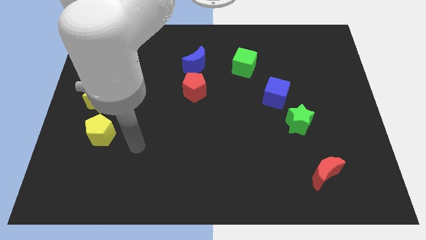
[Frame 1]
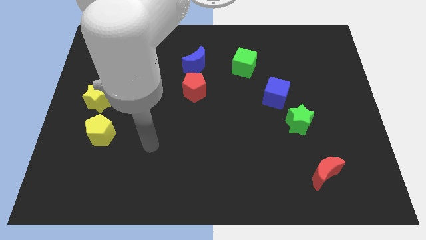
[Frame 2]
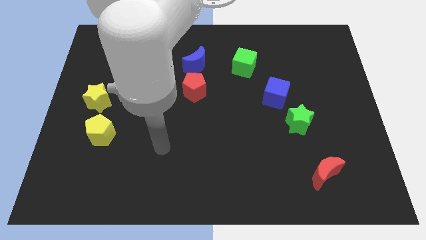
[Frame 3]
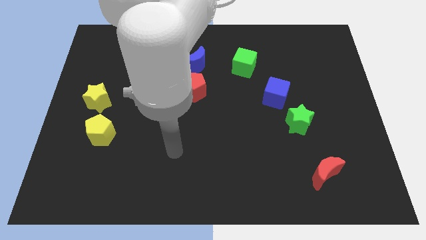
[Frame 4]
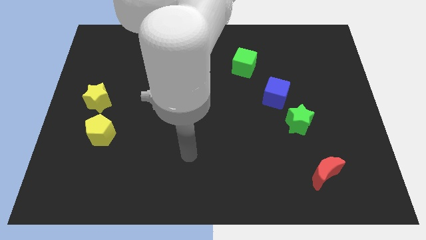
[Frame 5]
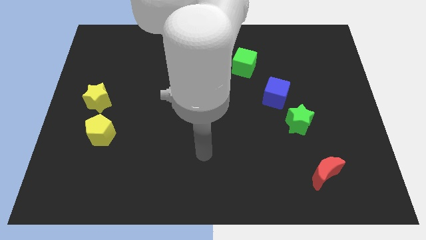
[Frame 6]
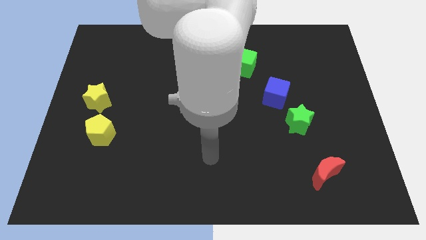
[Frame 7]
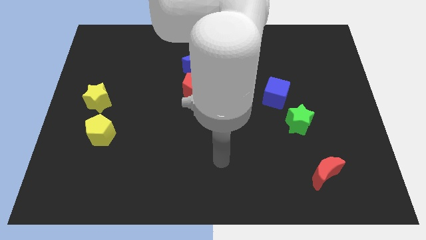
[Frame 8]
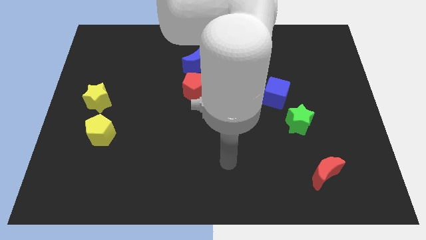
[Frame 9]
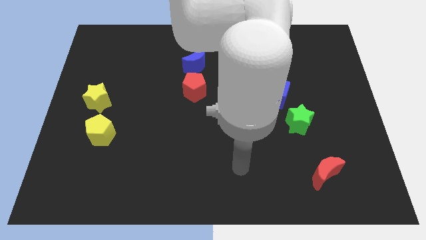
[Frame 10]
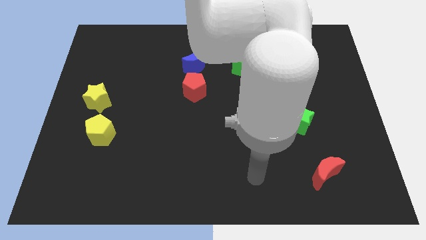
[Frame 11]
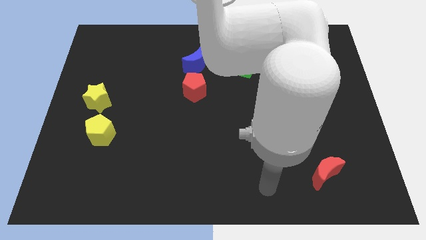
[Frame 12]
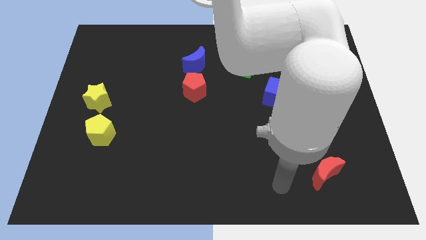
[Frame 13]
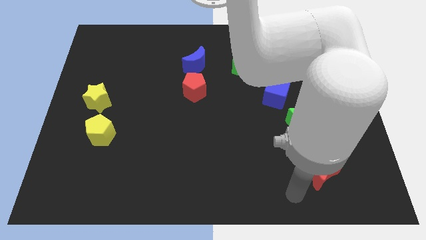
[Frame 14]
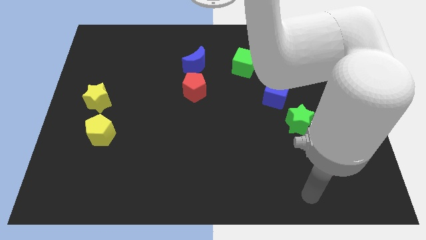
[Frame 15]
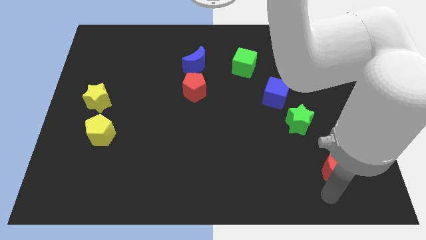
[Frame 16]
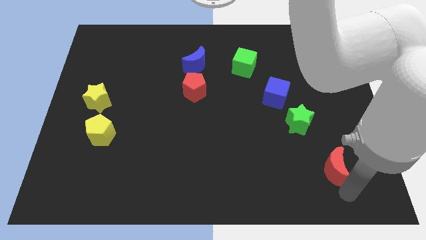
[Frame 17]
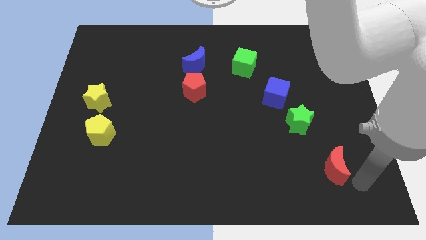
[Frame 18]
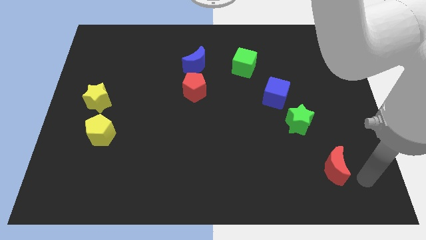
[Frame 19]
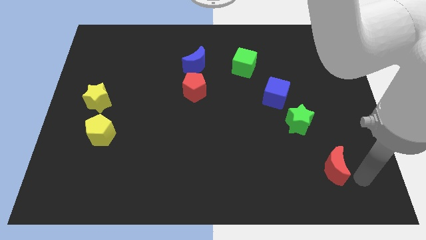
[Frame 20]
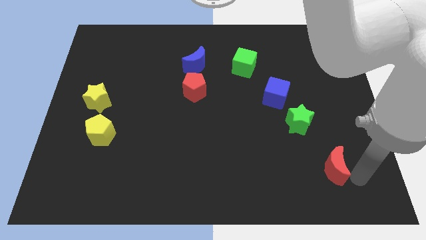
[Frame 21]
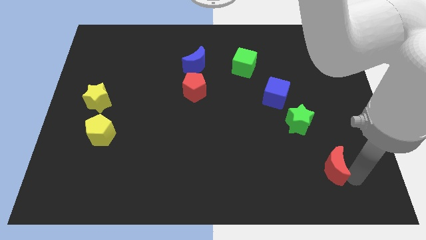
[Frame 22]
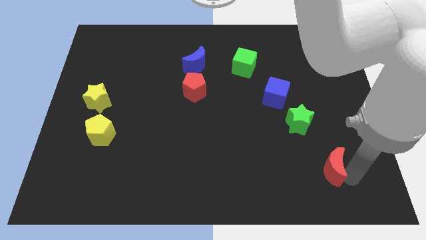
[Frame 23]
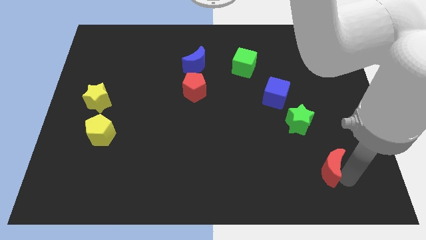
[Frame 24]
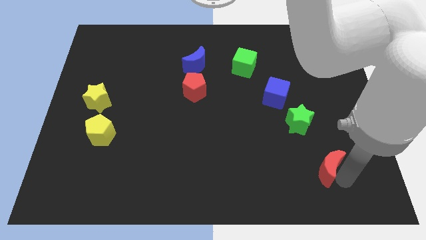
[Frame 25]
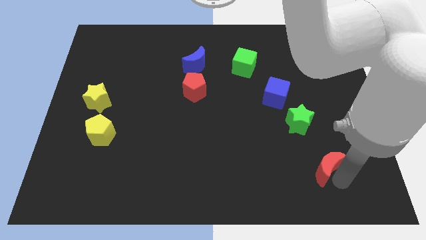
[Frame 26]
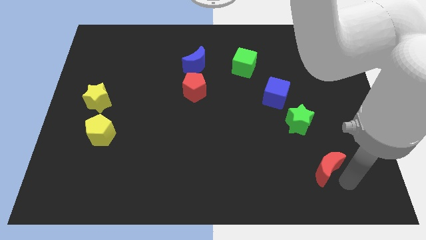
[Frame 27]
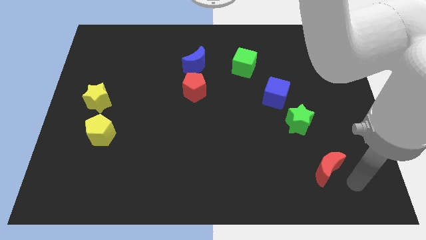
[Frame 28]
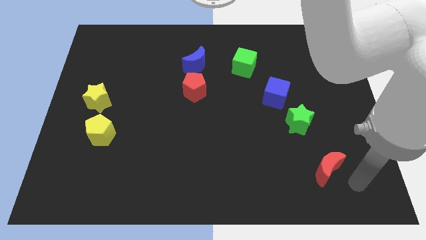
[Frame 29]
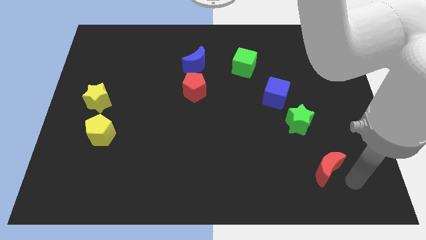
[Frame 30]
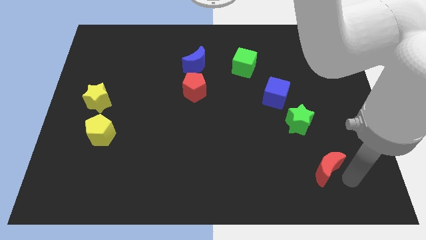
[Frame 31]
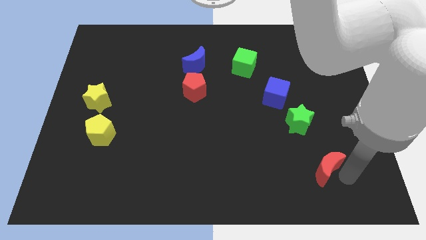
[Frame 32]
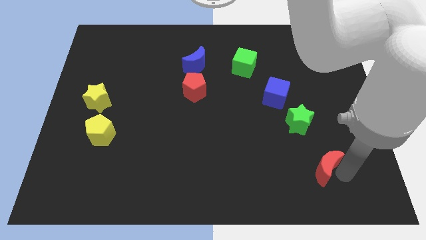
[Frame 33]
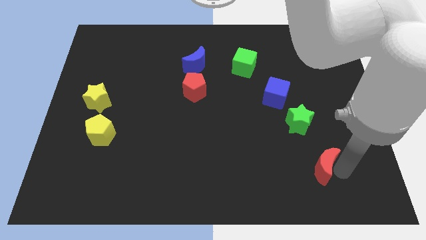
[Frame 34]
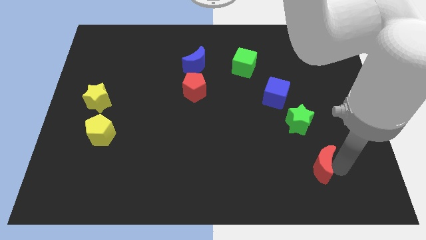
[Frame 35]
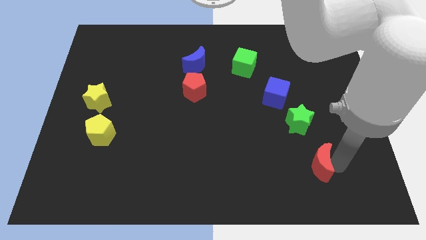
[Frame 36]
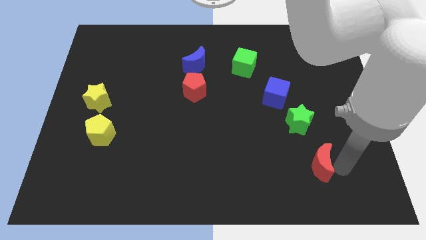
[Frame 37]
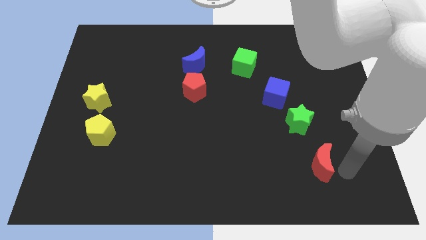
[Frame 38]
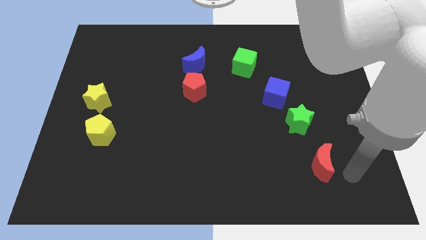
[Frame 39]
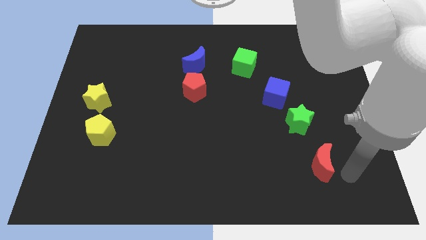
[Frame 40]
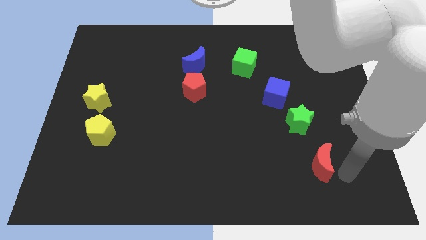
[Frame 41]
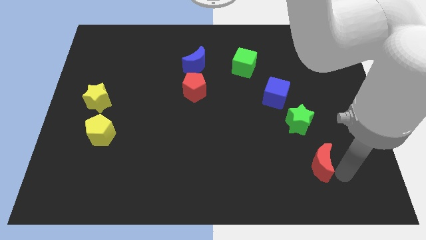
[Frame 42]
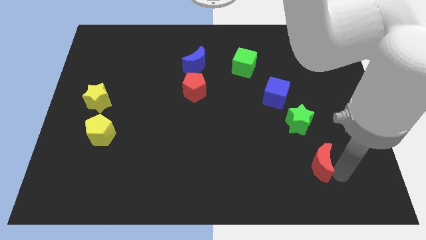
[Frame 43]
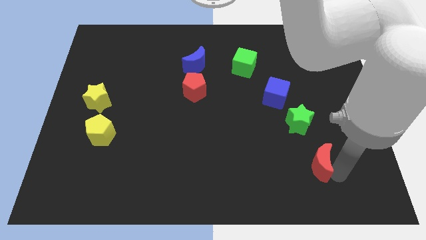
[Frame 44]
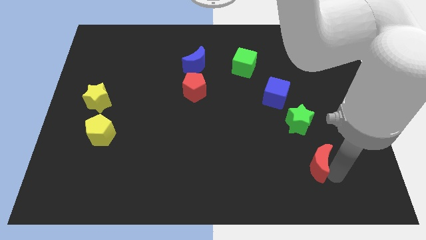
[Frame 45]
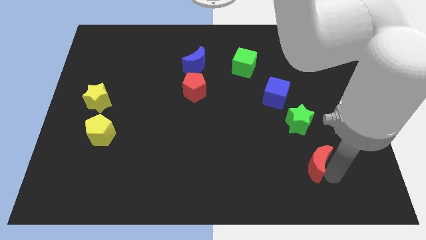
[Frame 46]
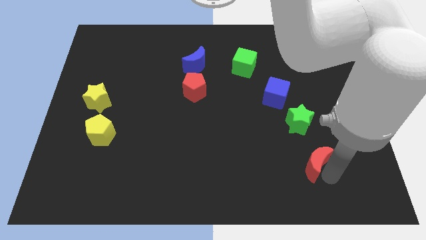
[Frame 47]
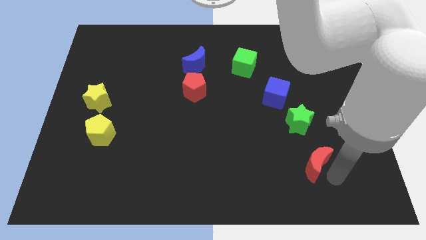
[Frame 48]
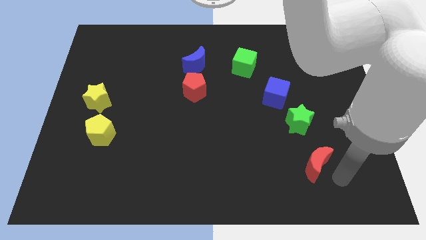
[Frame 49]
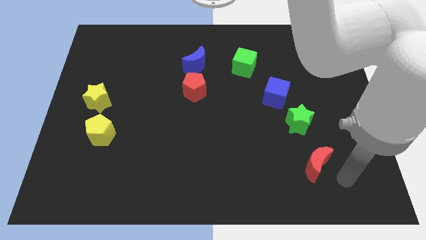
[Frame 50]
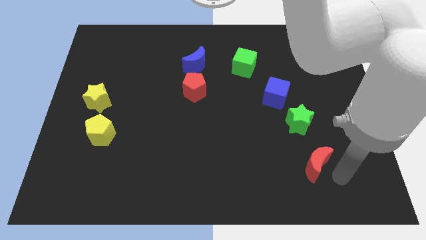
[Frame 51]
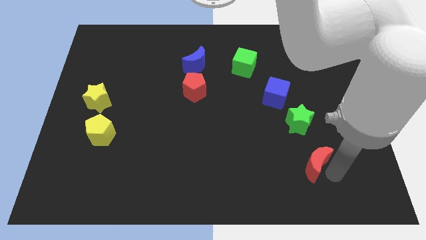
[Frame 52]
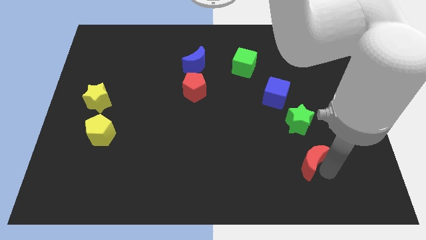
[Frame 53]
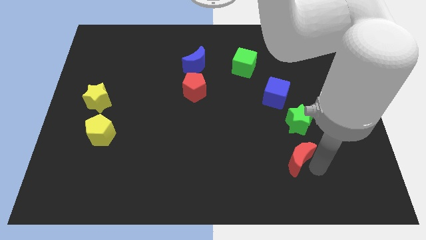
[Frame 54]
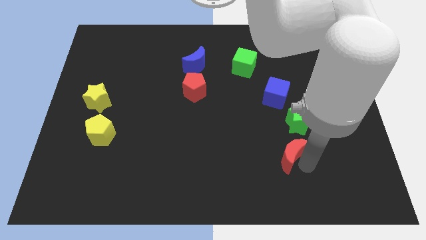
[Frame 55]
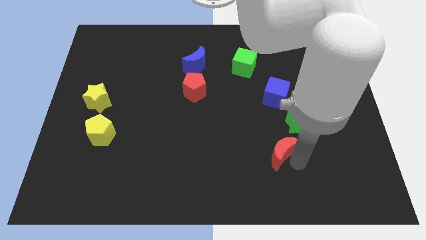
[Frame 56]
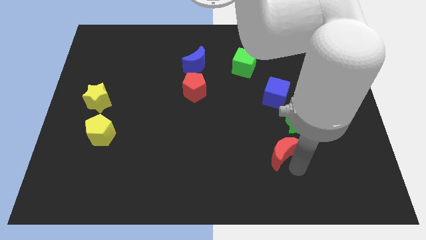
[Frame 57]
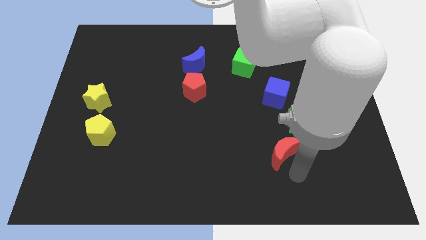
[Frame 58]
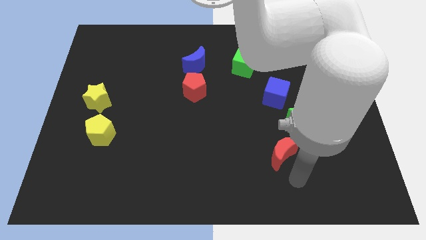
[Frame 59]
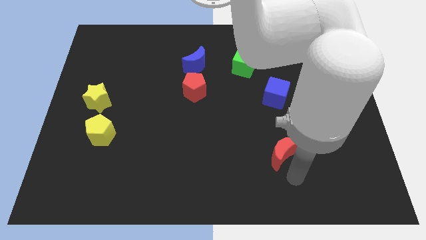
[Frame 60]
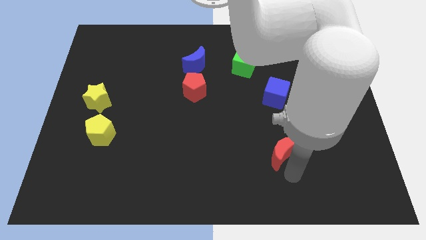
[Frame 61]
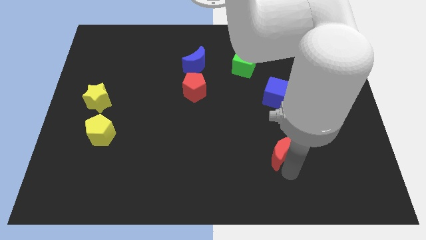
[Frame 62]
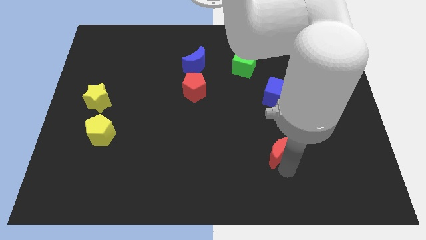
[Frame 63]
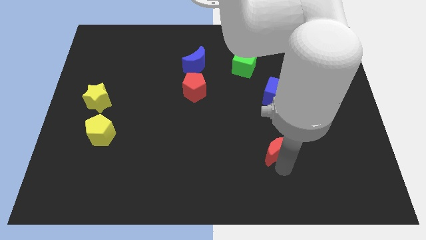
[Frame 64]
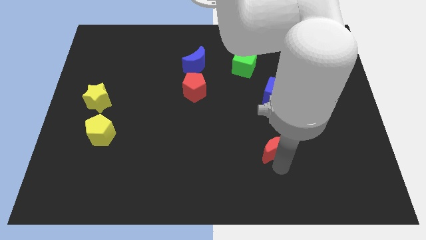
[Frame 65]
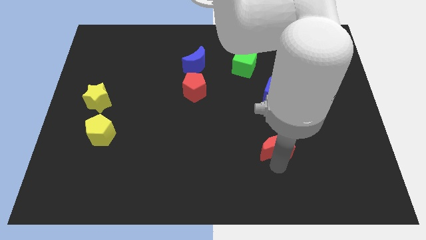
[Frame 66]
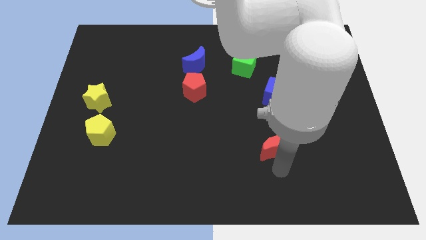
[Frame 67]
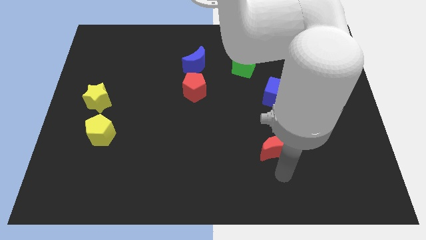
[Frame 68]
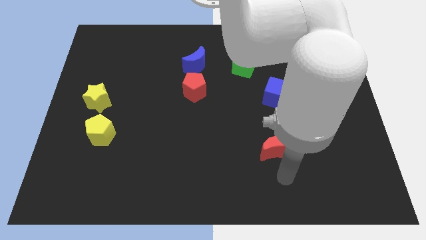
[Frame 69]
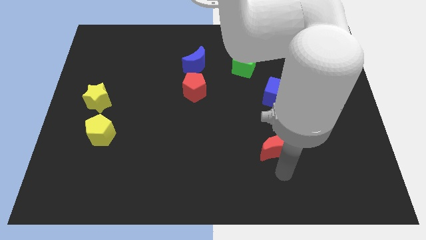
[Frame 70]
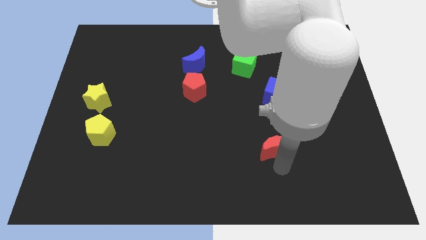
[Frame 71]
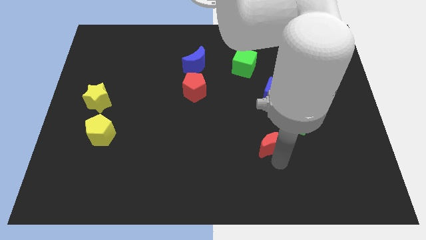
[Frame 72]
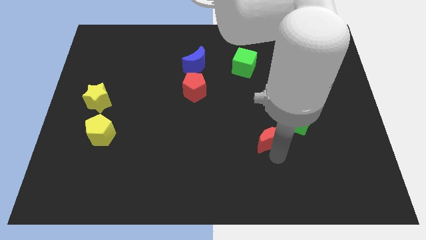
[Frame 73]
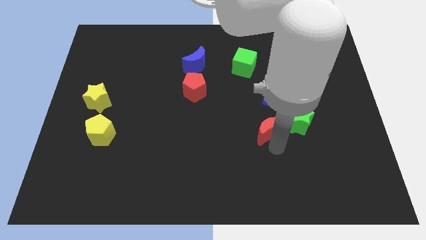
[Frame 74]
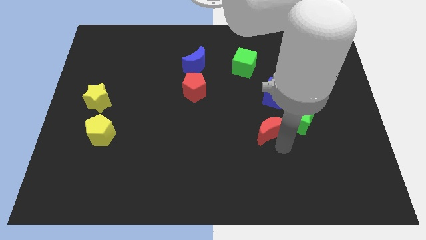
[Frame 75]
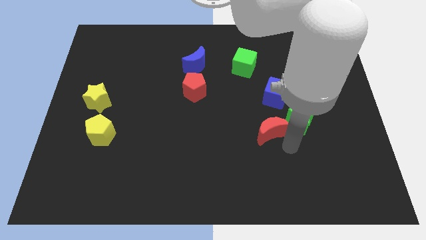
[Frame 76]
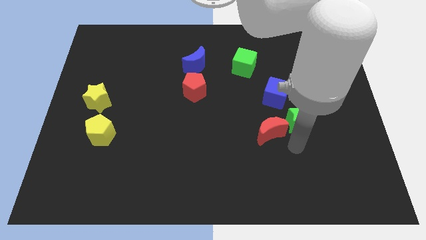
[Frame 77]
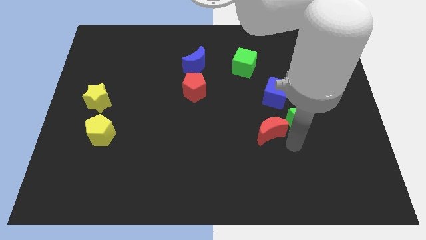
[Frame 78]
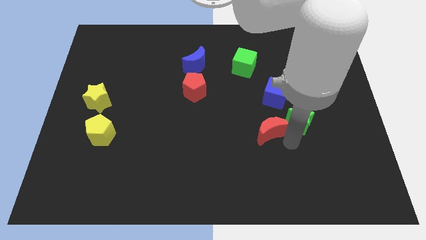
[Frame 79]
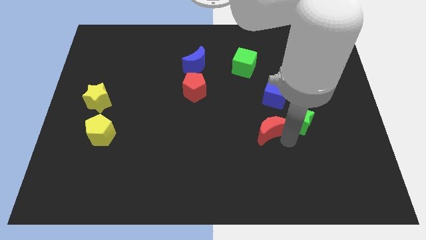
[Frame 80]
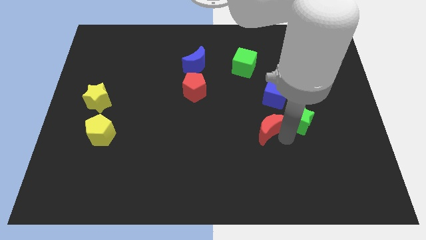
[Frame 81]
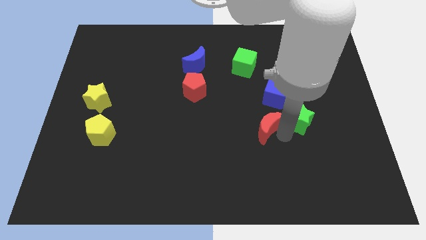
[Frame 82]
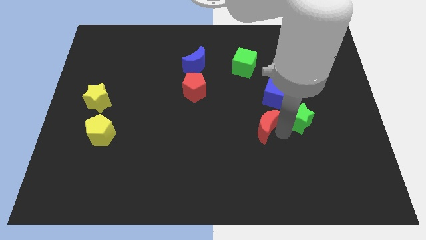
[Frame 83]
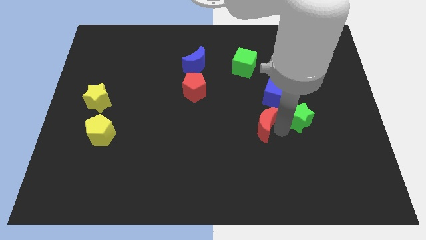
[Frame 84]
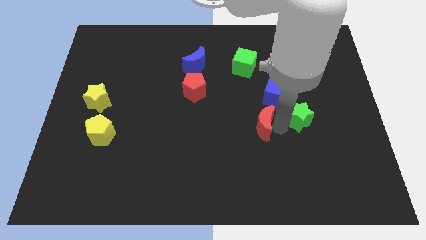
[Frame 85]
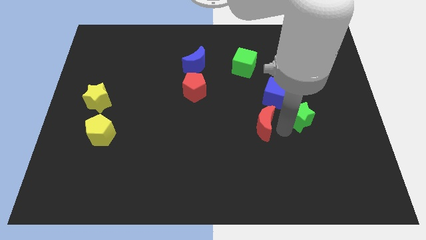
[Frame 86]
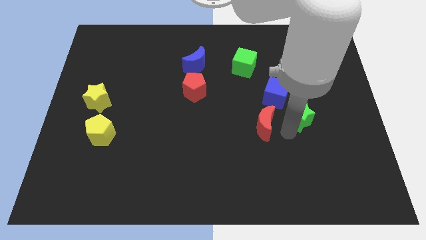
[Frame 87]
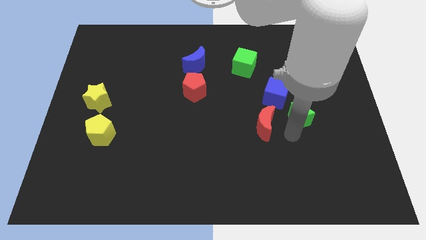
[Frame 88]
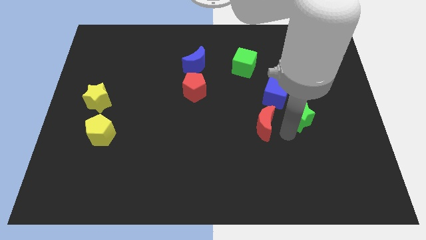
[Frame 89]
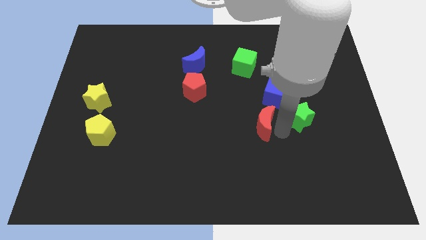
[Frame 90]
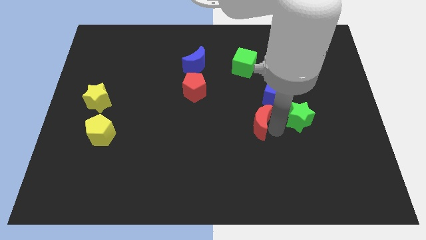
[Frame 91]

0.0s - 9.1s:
push the red moon to the center
